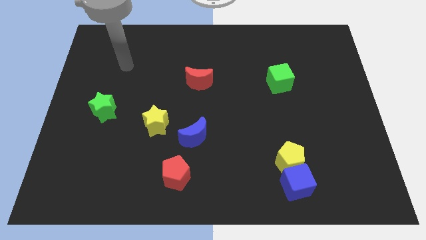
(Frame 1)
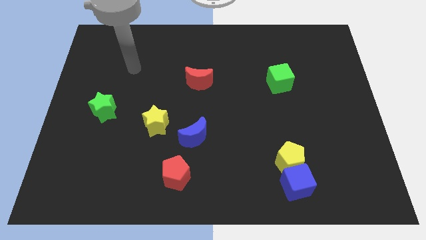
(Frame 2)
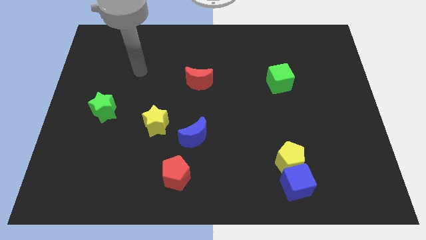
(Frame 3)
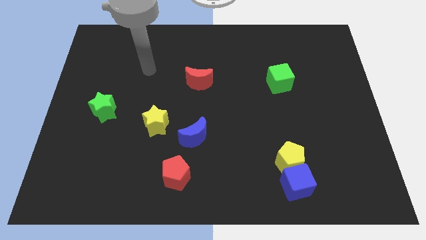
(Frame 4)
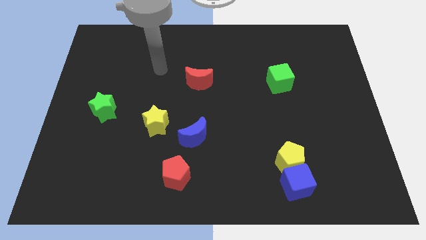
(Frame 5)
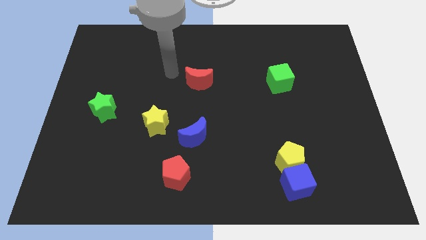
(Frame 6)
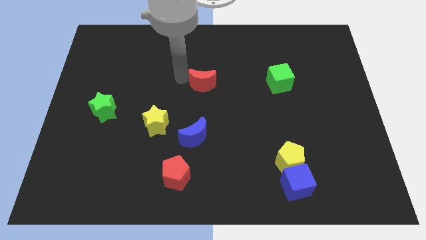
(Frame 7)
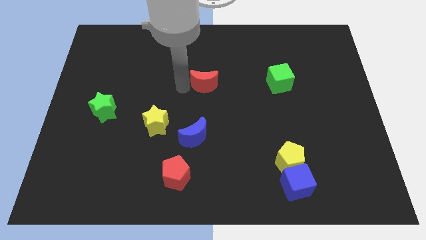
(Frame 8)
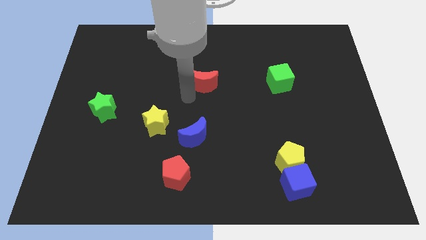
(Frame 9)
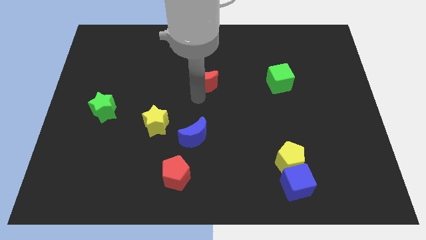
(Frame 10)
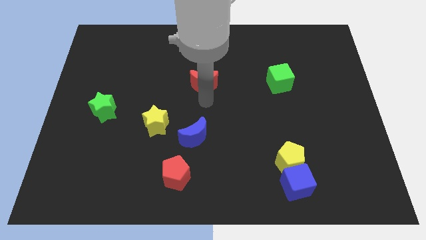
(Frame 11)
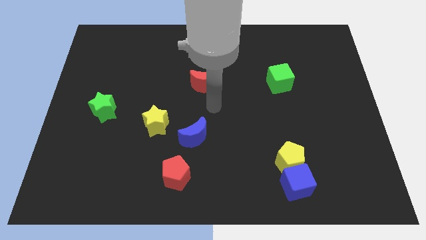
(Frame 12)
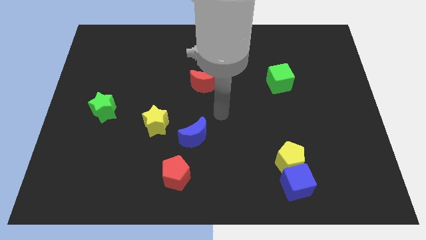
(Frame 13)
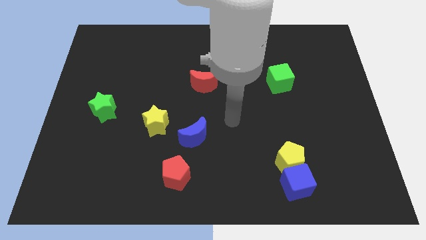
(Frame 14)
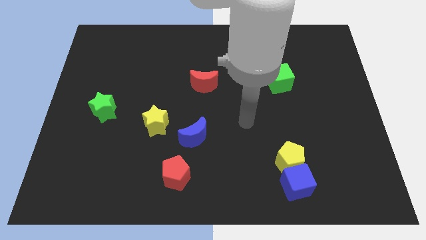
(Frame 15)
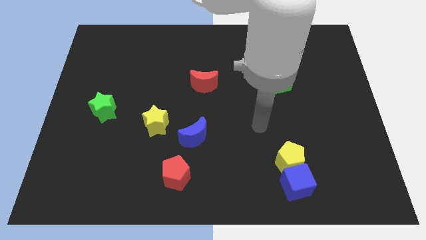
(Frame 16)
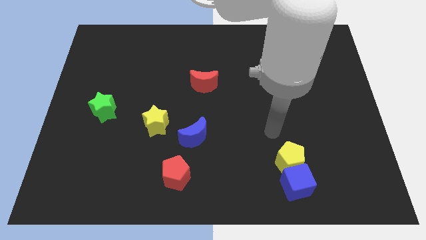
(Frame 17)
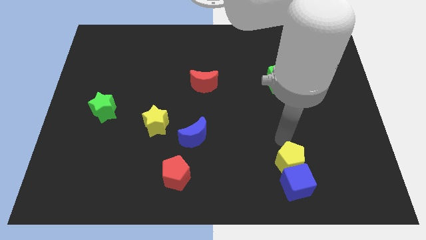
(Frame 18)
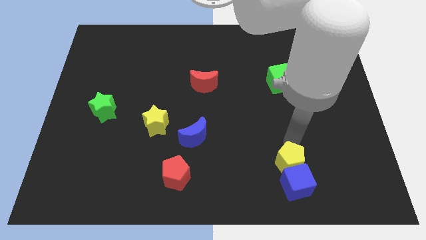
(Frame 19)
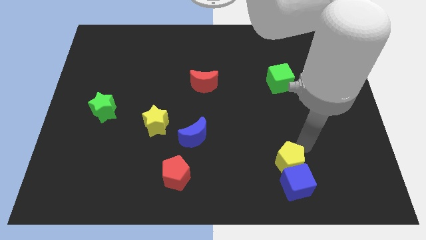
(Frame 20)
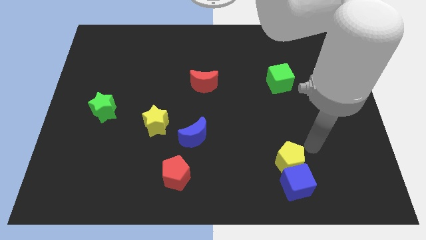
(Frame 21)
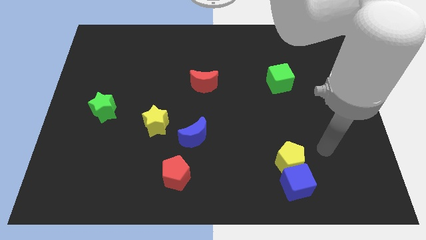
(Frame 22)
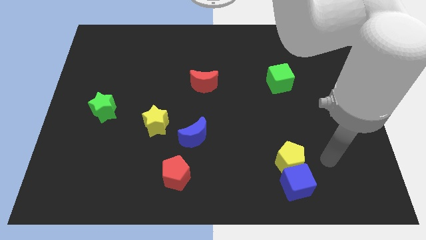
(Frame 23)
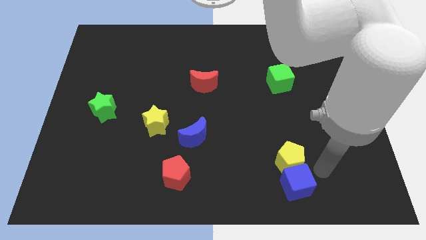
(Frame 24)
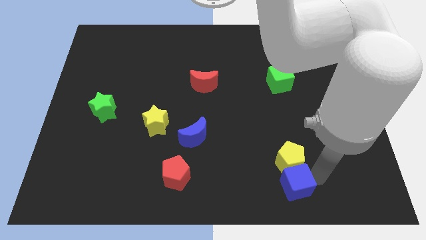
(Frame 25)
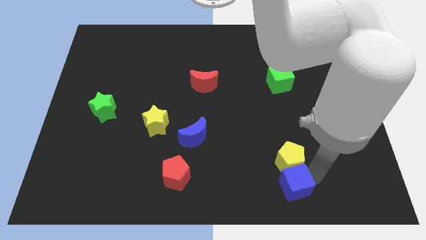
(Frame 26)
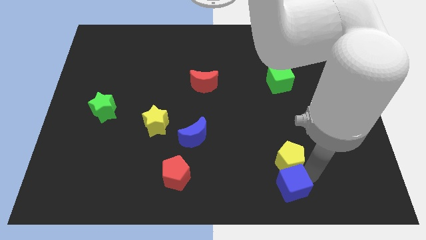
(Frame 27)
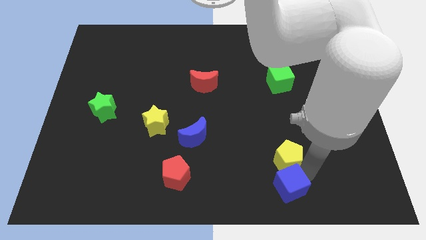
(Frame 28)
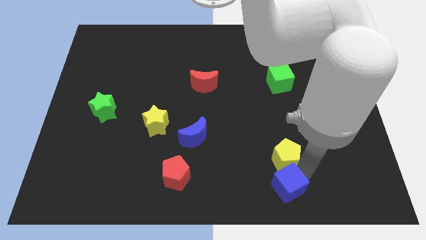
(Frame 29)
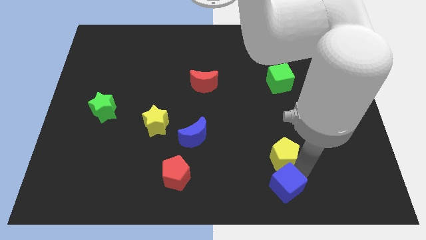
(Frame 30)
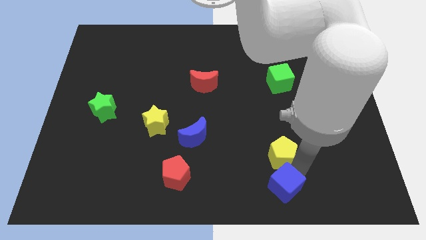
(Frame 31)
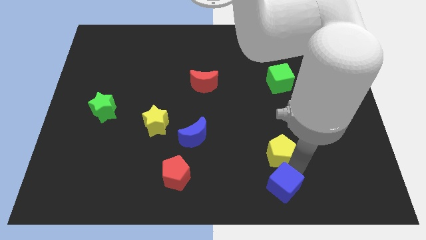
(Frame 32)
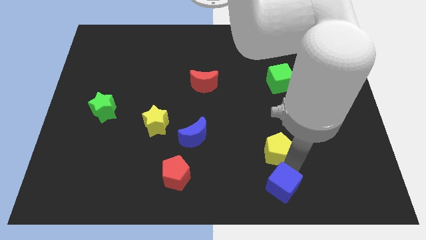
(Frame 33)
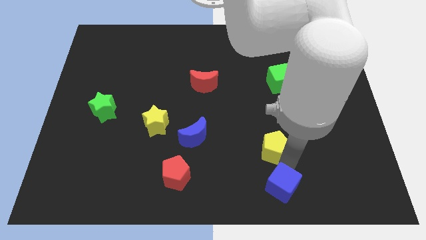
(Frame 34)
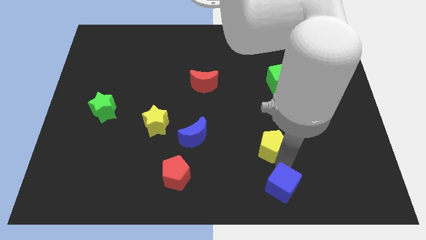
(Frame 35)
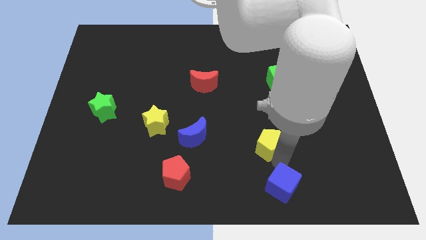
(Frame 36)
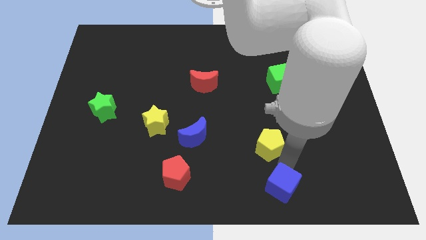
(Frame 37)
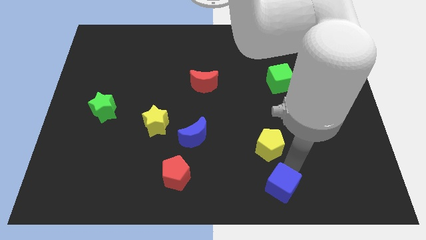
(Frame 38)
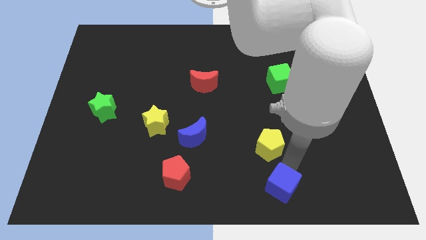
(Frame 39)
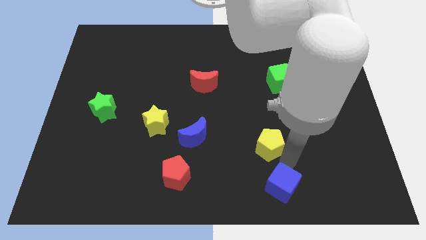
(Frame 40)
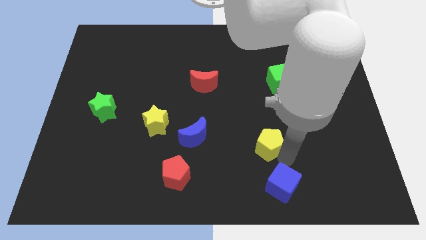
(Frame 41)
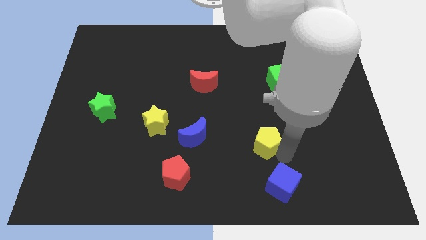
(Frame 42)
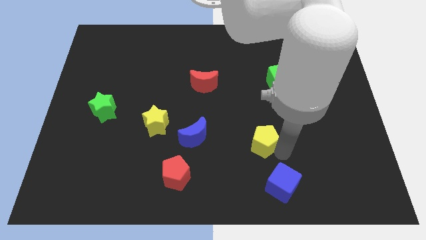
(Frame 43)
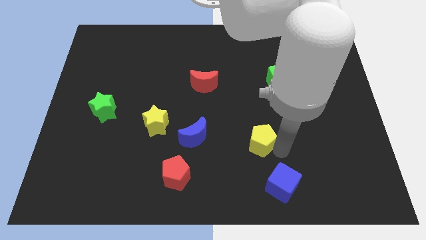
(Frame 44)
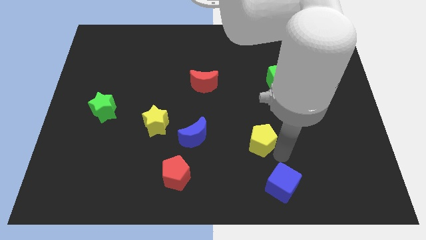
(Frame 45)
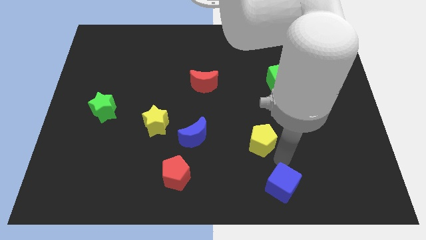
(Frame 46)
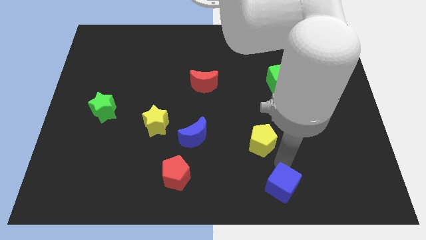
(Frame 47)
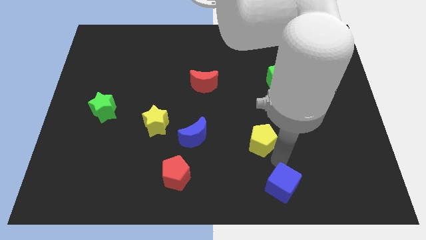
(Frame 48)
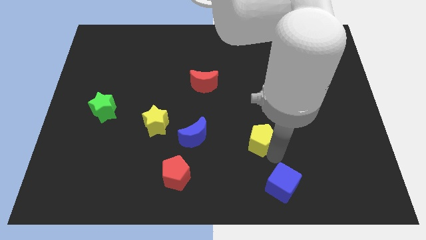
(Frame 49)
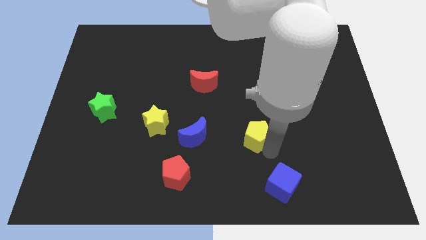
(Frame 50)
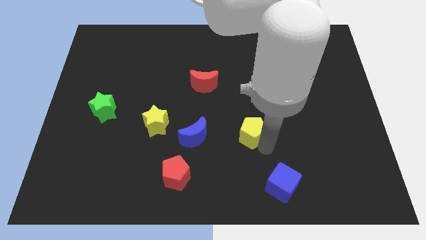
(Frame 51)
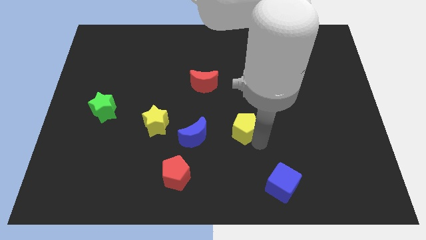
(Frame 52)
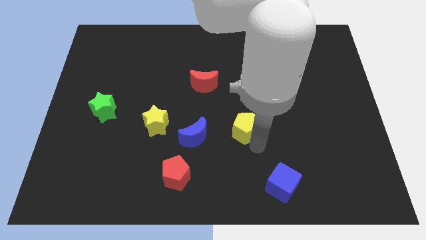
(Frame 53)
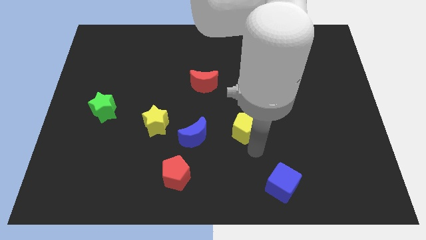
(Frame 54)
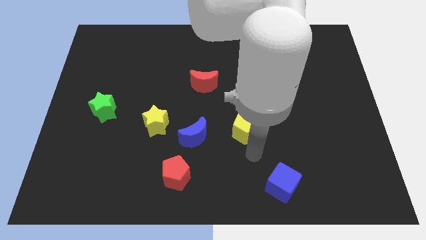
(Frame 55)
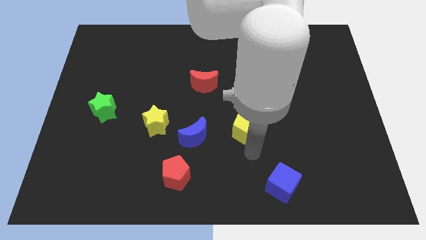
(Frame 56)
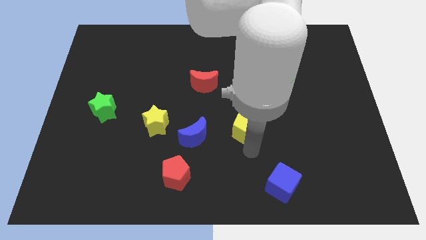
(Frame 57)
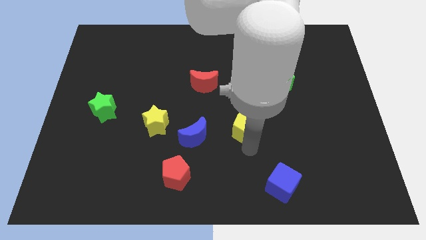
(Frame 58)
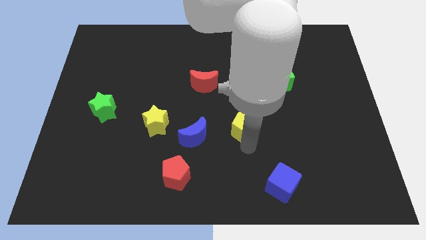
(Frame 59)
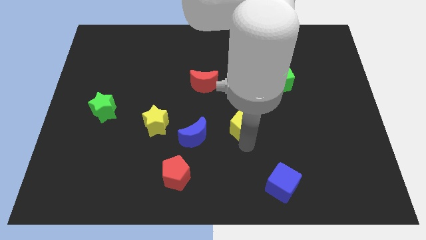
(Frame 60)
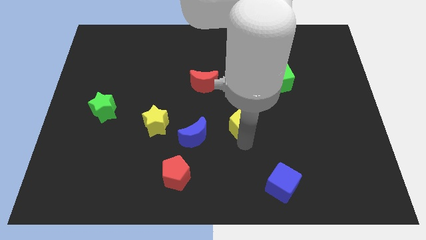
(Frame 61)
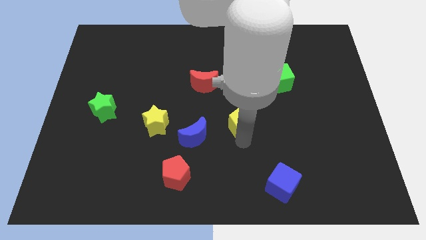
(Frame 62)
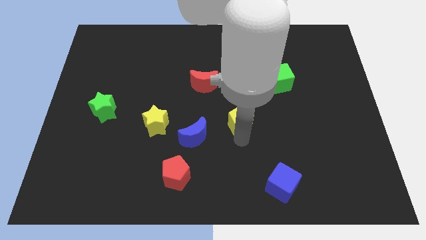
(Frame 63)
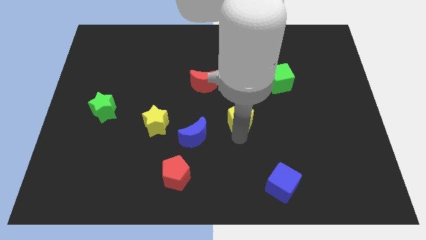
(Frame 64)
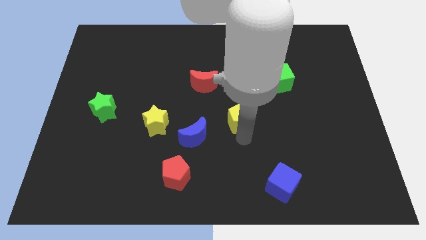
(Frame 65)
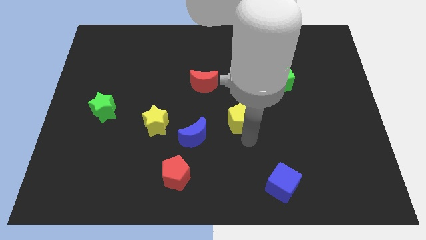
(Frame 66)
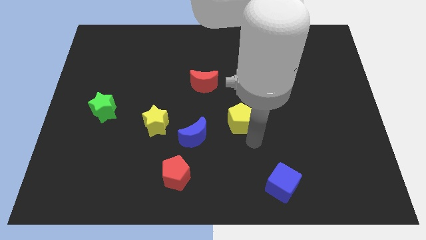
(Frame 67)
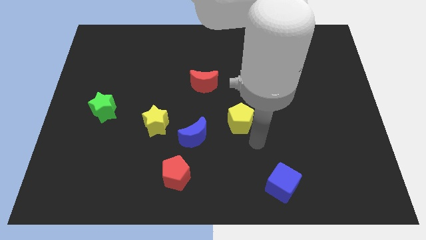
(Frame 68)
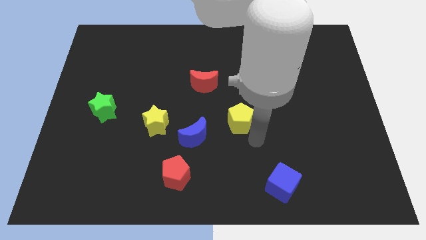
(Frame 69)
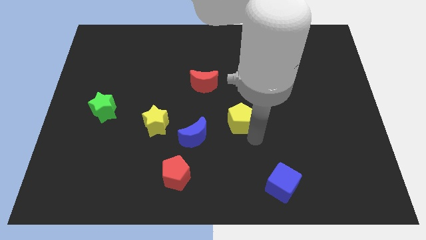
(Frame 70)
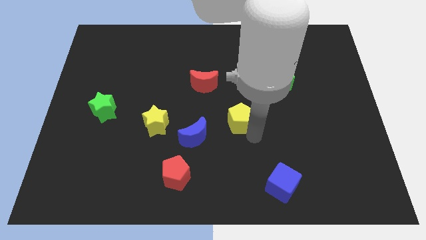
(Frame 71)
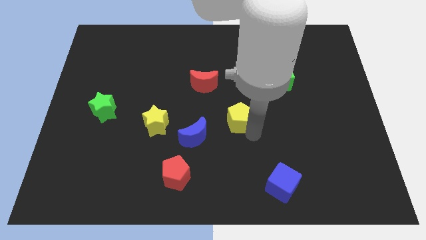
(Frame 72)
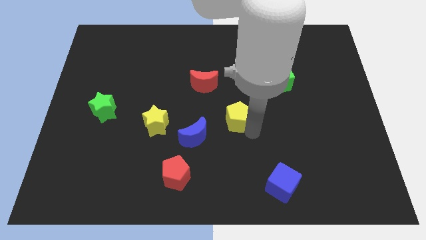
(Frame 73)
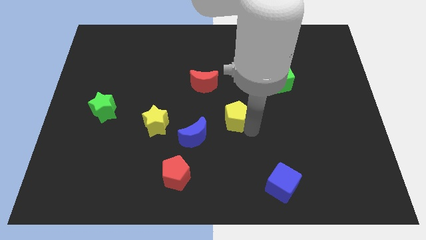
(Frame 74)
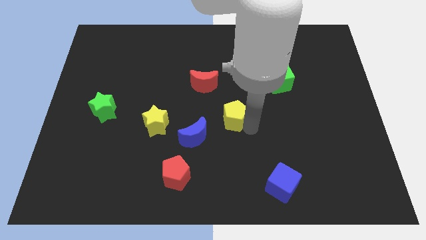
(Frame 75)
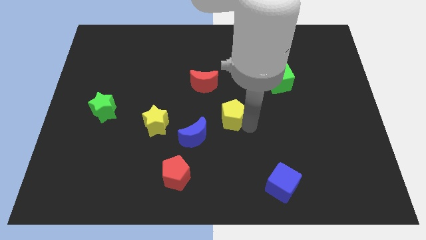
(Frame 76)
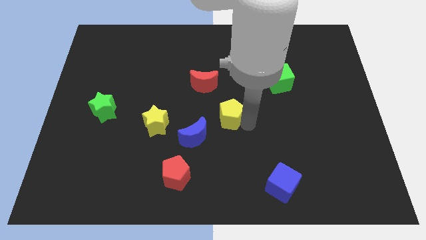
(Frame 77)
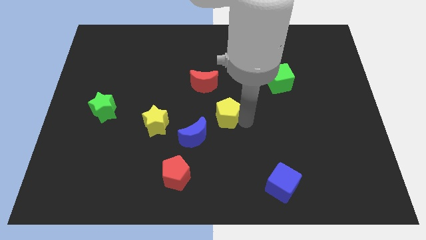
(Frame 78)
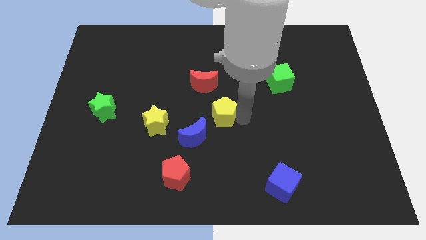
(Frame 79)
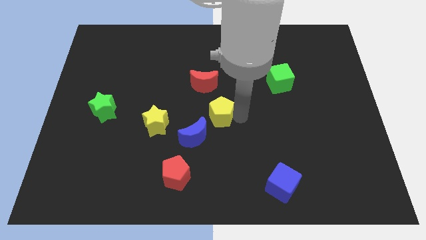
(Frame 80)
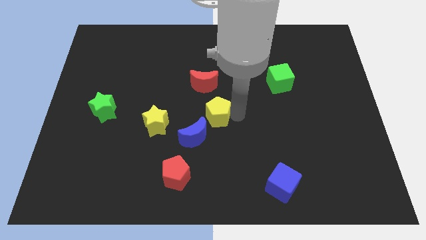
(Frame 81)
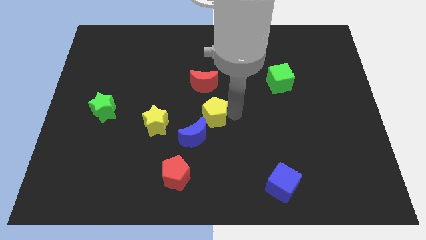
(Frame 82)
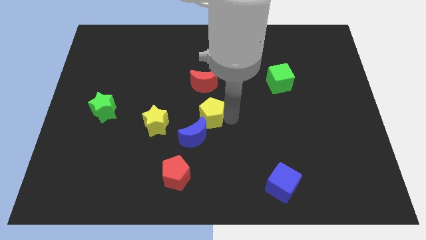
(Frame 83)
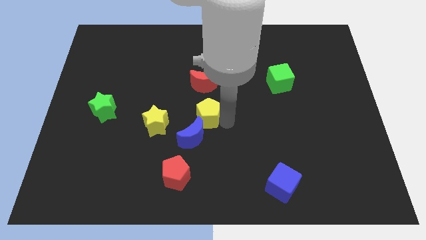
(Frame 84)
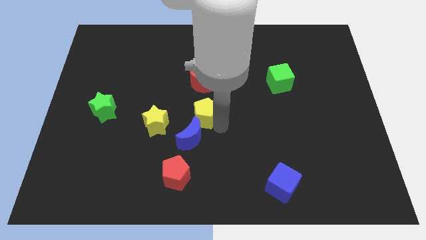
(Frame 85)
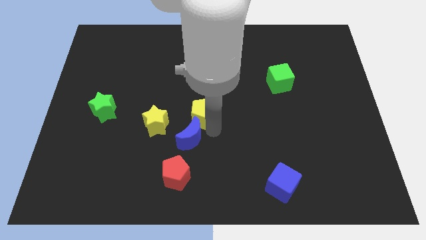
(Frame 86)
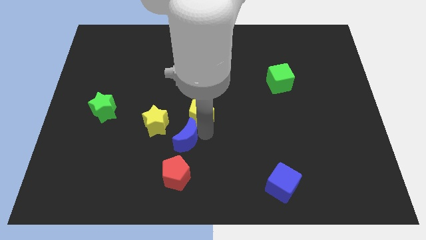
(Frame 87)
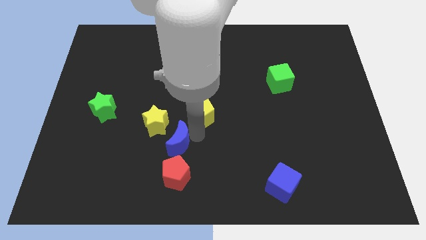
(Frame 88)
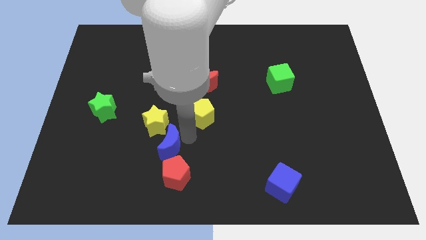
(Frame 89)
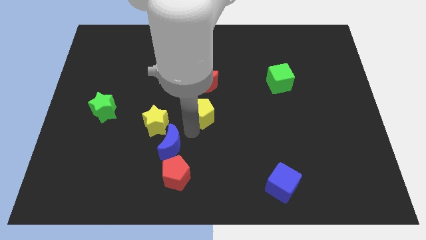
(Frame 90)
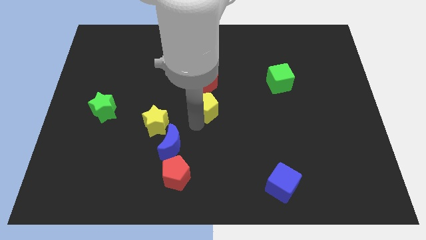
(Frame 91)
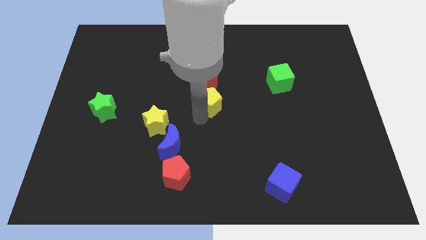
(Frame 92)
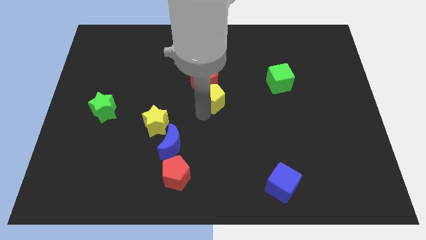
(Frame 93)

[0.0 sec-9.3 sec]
push the yellow pentagon towards the red moon
